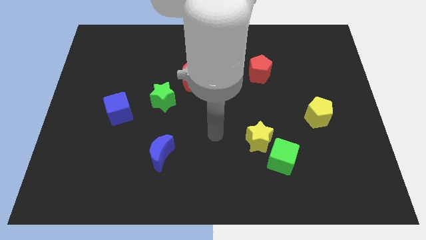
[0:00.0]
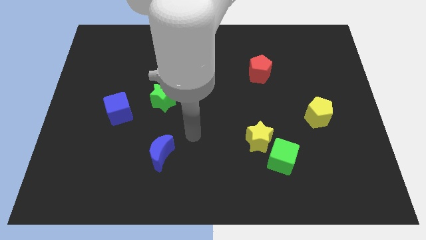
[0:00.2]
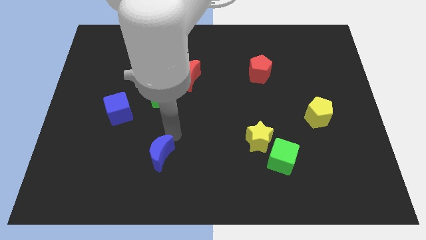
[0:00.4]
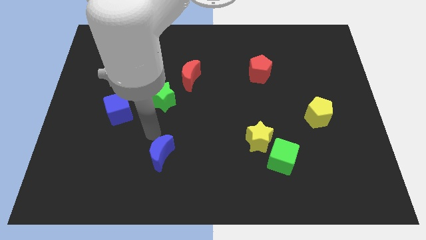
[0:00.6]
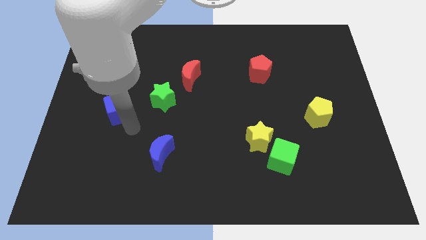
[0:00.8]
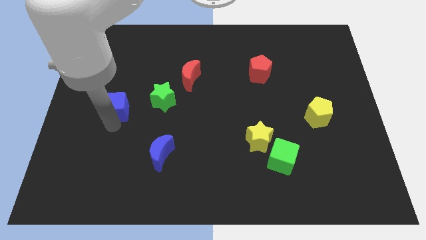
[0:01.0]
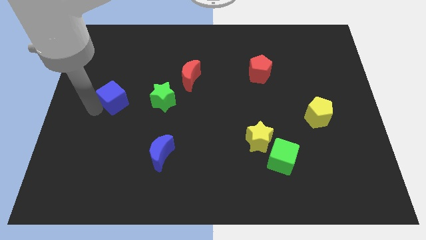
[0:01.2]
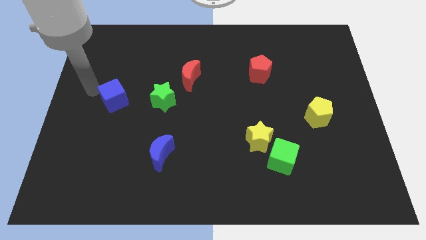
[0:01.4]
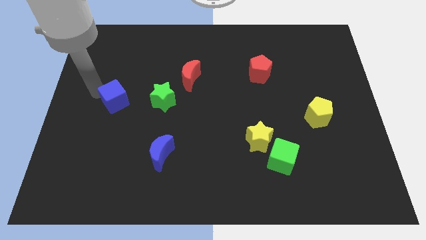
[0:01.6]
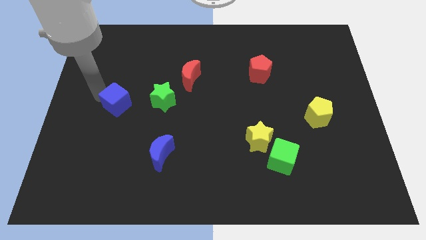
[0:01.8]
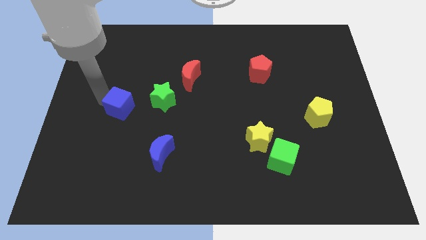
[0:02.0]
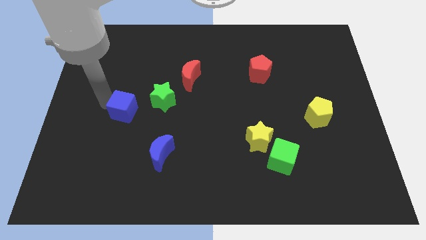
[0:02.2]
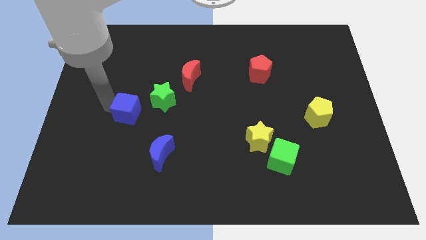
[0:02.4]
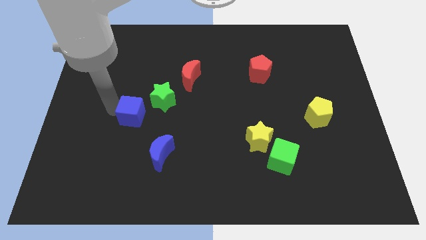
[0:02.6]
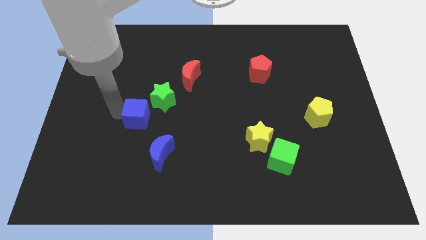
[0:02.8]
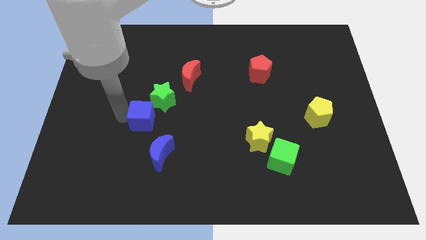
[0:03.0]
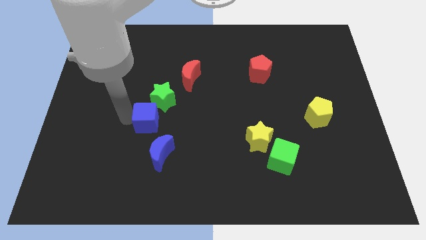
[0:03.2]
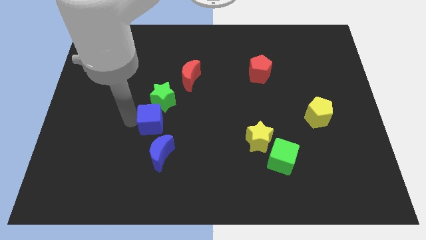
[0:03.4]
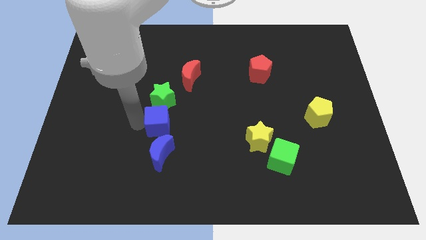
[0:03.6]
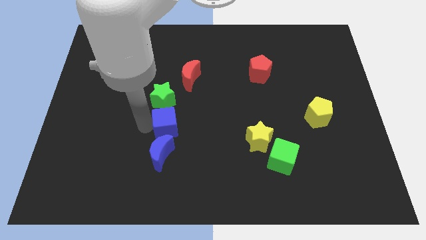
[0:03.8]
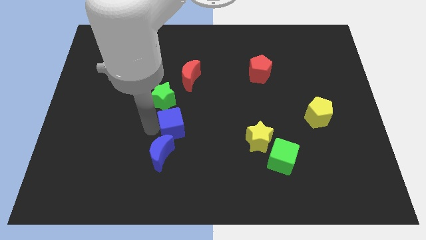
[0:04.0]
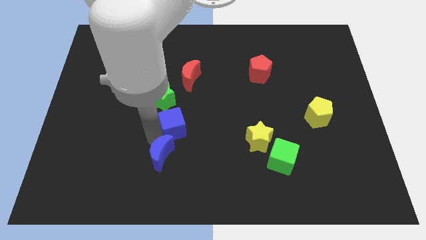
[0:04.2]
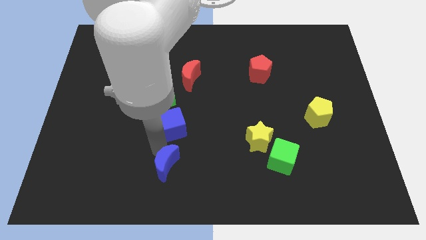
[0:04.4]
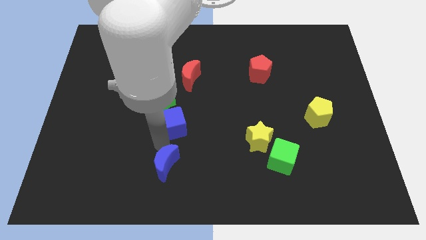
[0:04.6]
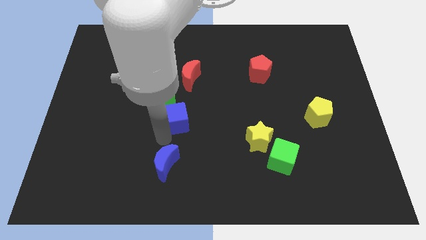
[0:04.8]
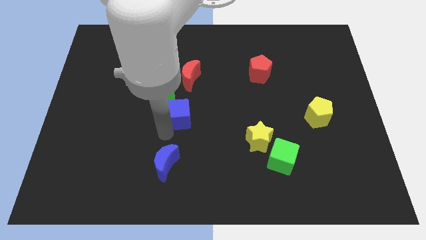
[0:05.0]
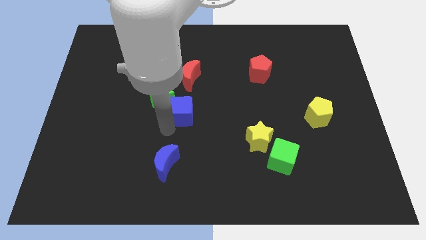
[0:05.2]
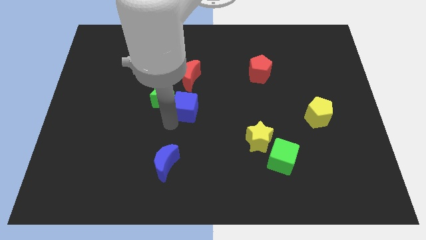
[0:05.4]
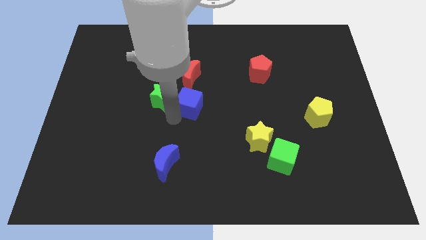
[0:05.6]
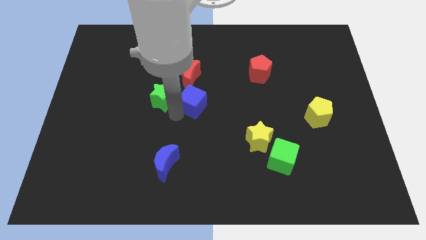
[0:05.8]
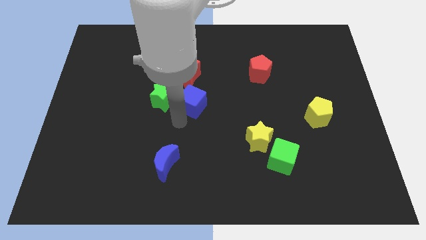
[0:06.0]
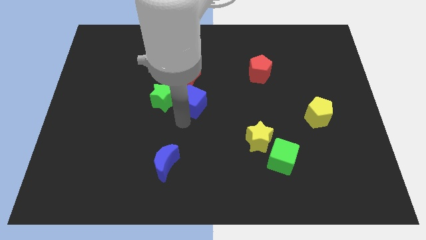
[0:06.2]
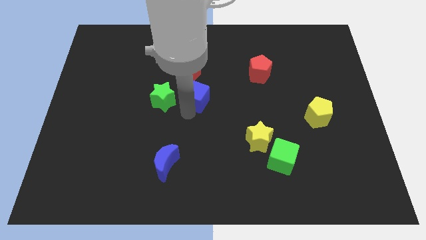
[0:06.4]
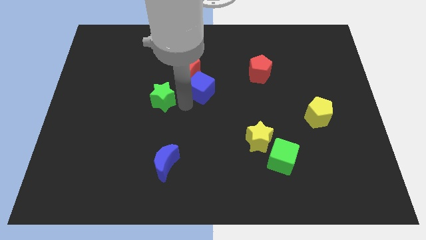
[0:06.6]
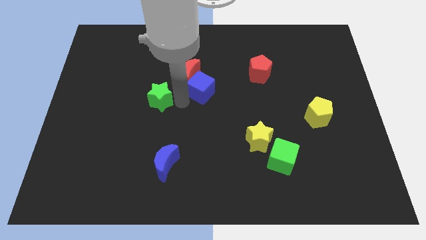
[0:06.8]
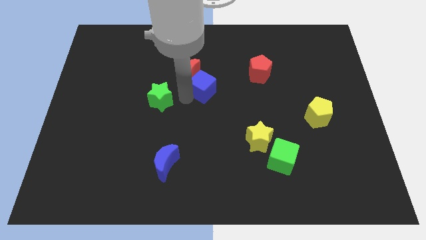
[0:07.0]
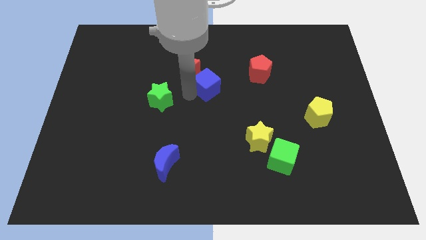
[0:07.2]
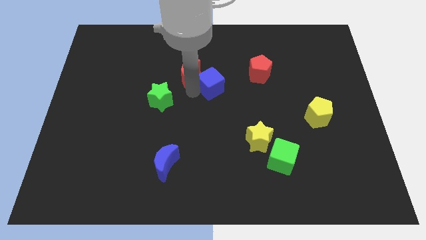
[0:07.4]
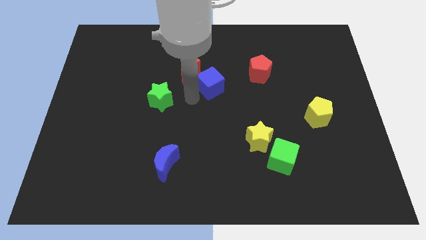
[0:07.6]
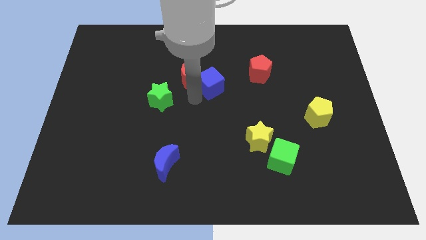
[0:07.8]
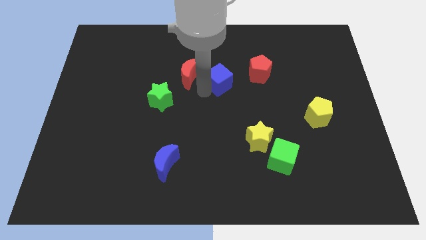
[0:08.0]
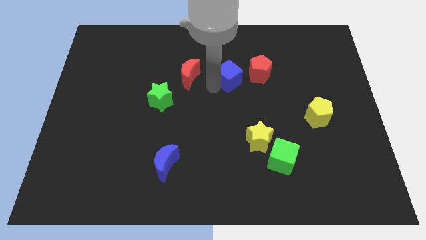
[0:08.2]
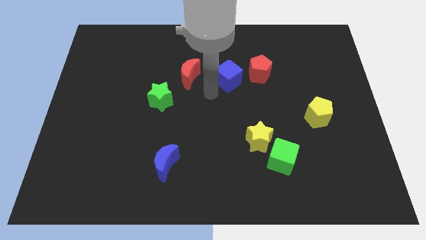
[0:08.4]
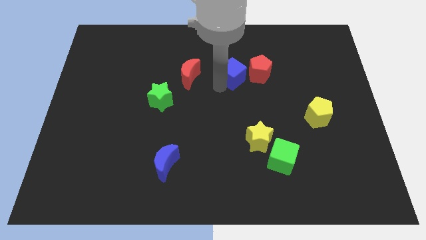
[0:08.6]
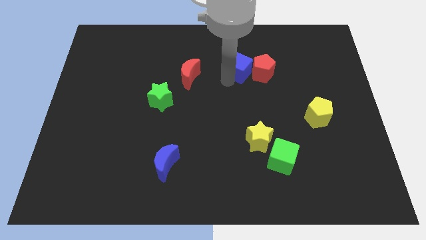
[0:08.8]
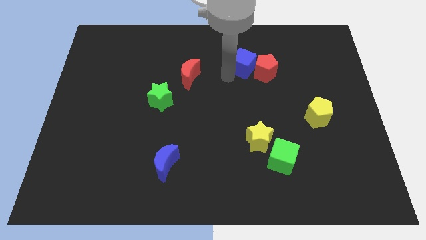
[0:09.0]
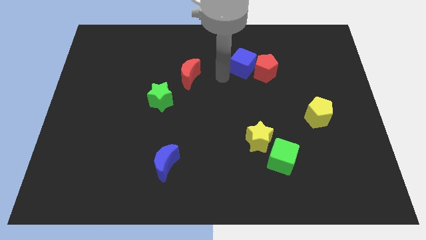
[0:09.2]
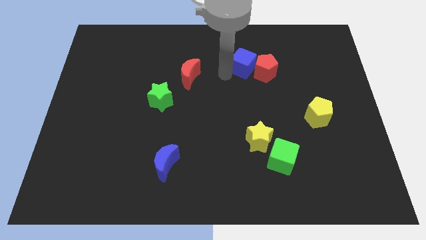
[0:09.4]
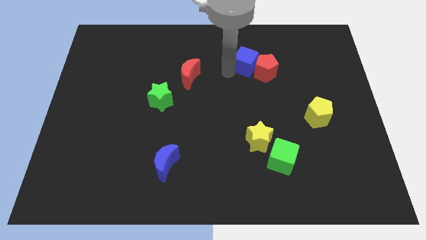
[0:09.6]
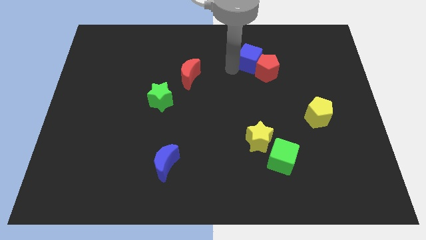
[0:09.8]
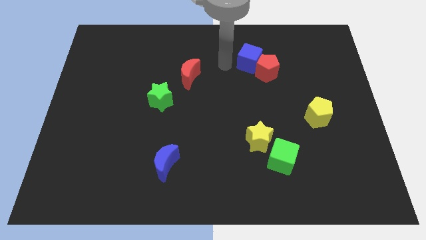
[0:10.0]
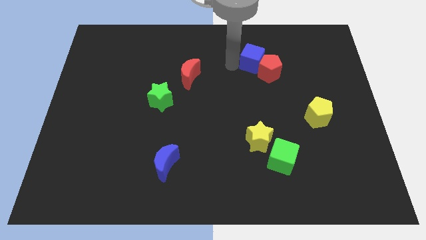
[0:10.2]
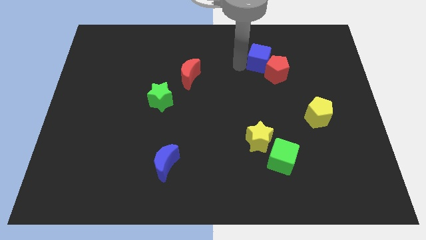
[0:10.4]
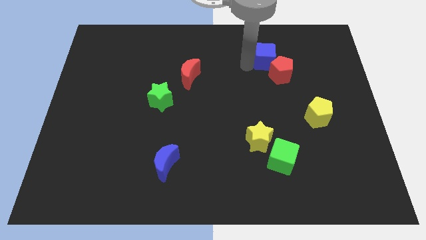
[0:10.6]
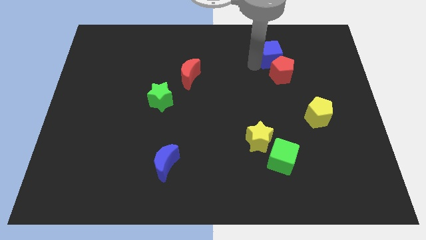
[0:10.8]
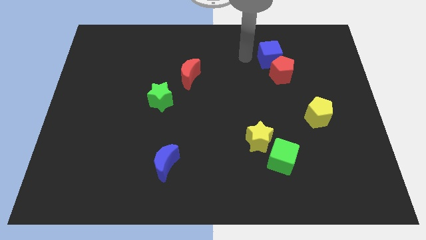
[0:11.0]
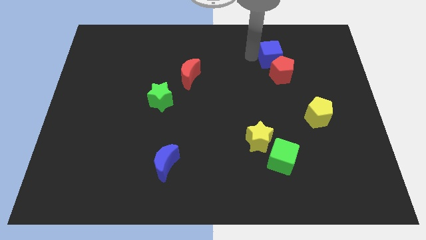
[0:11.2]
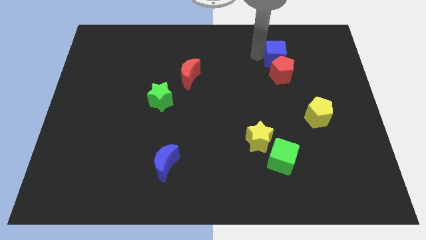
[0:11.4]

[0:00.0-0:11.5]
put the blue cube diagonally up and to the right of the red pentagon

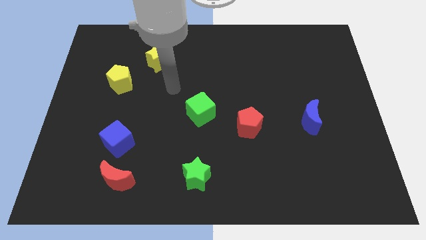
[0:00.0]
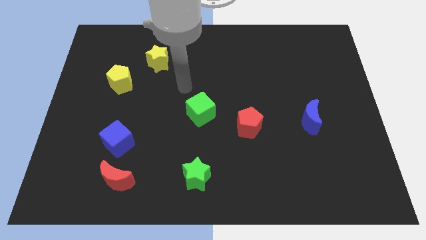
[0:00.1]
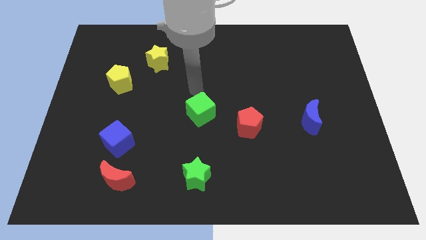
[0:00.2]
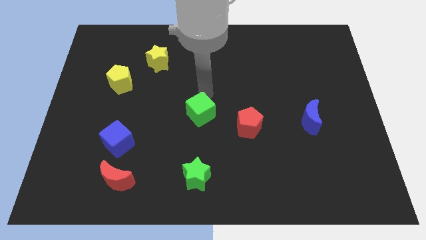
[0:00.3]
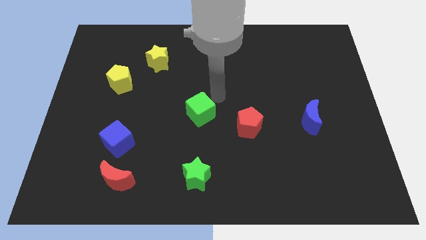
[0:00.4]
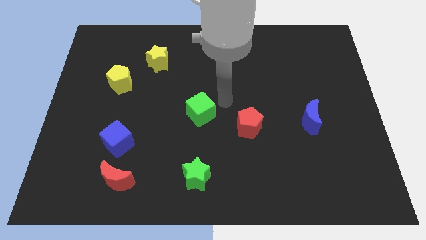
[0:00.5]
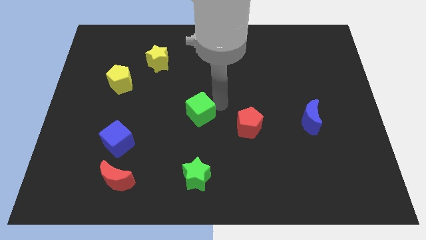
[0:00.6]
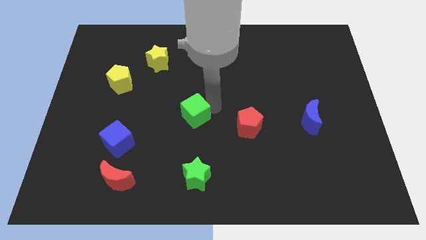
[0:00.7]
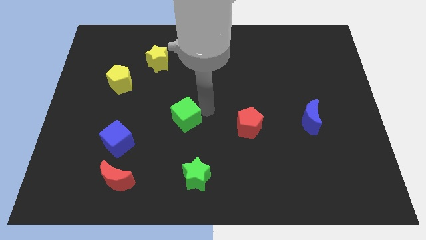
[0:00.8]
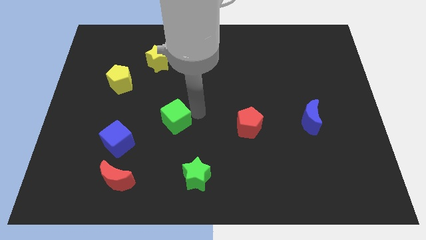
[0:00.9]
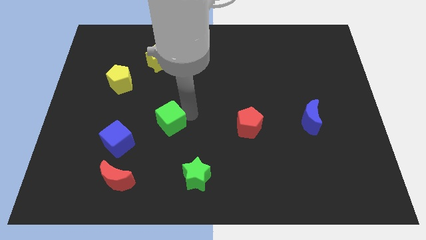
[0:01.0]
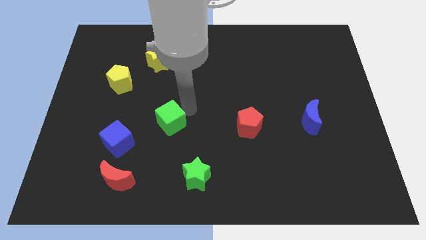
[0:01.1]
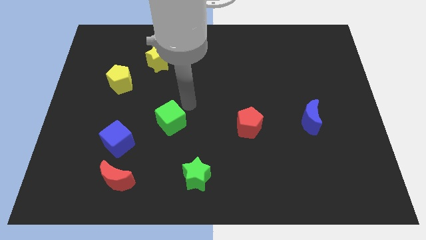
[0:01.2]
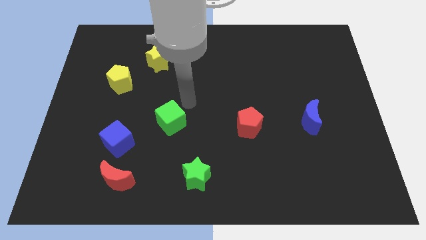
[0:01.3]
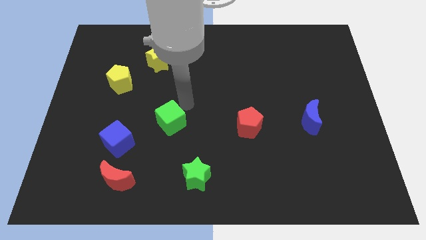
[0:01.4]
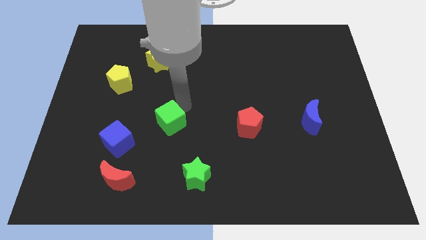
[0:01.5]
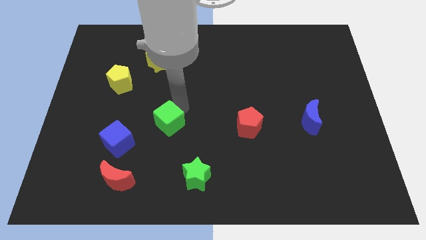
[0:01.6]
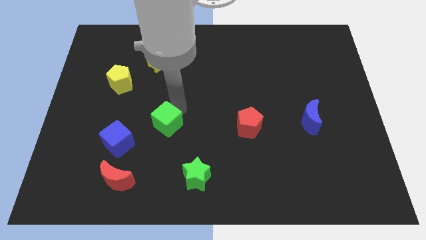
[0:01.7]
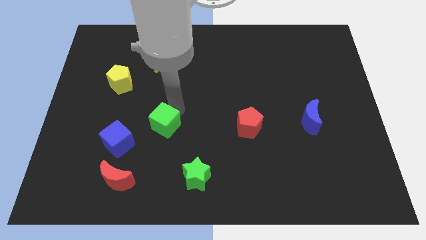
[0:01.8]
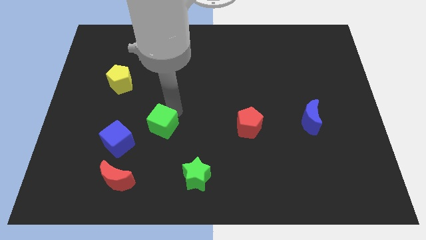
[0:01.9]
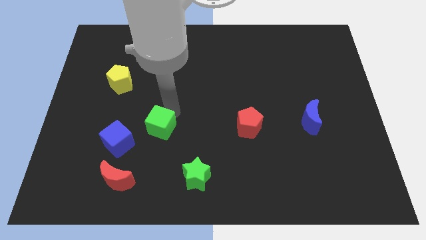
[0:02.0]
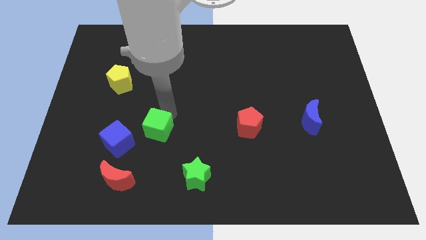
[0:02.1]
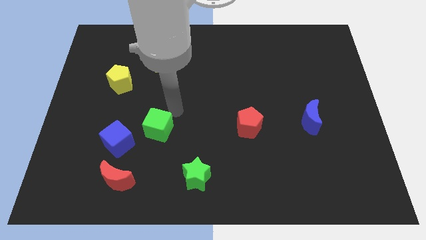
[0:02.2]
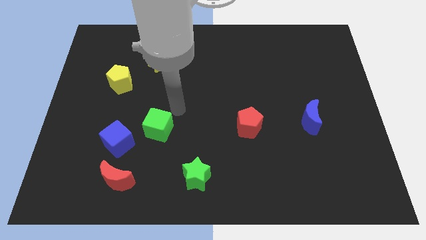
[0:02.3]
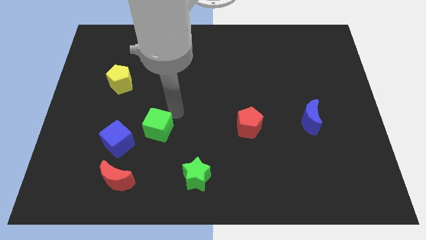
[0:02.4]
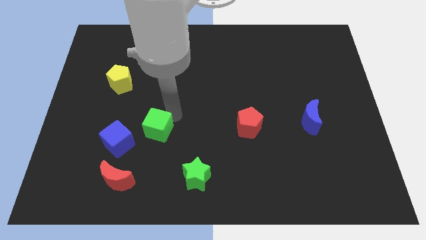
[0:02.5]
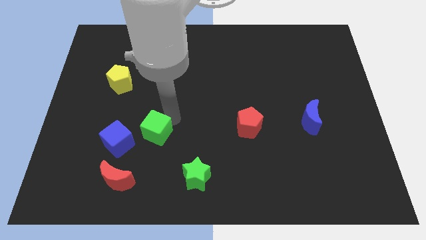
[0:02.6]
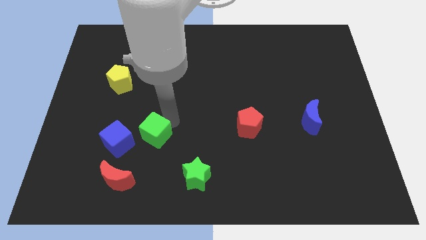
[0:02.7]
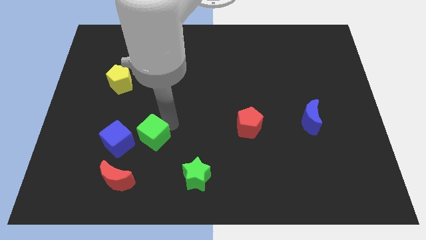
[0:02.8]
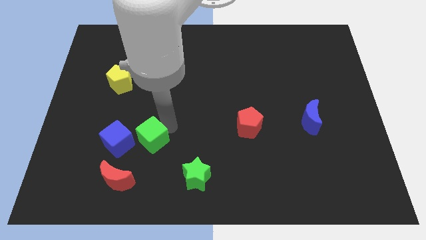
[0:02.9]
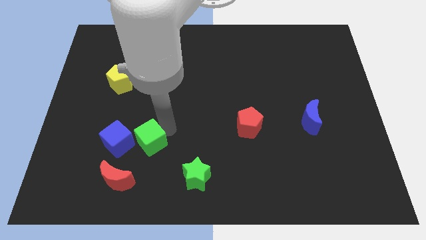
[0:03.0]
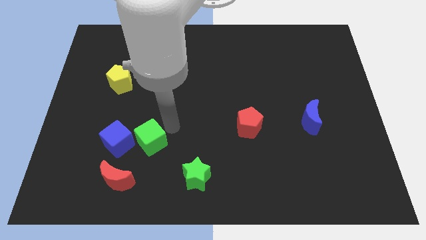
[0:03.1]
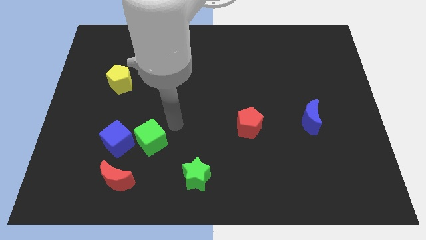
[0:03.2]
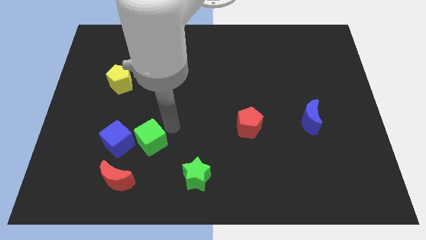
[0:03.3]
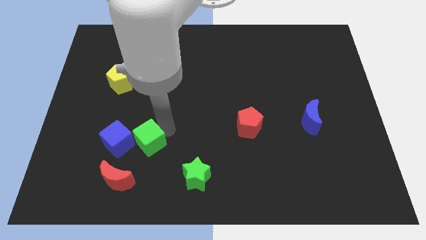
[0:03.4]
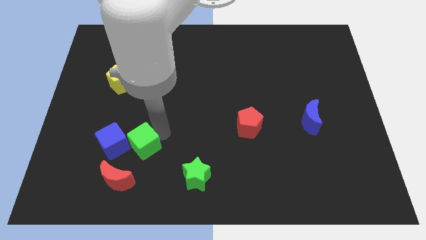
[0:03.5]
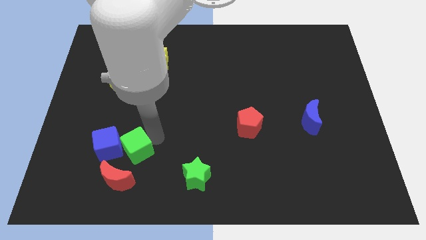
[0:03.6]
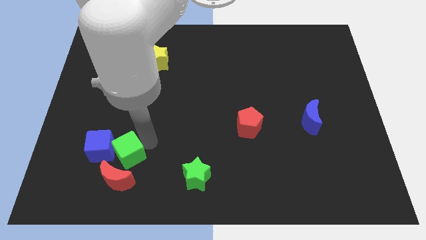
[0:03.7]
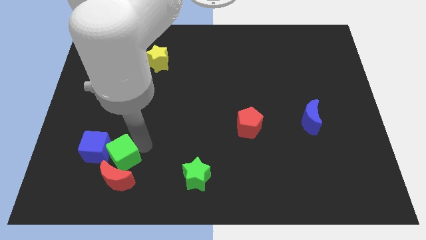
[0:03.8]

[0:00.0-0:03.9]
slide the green cube to the top left of the red moon
